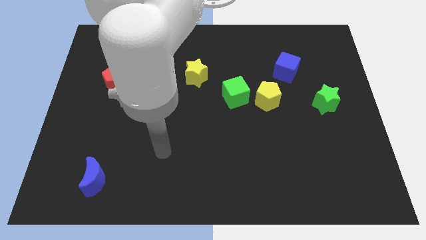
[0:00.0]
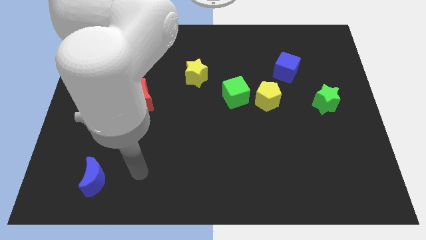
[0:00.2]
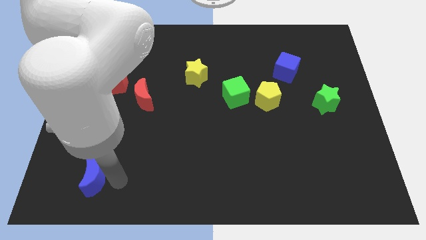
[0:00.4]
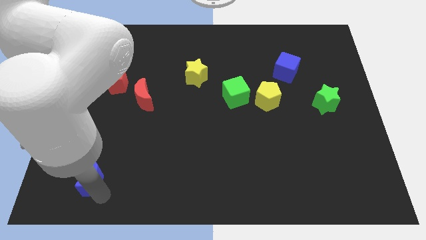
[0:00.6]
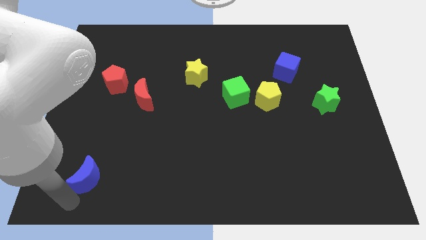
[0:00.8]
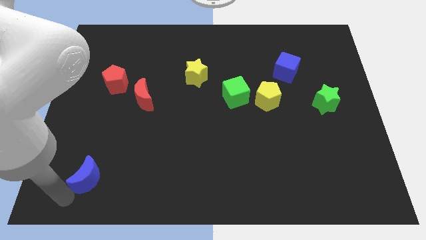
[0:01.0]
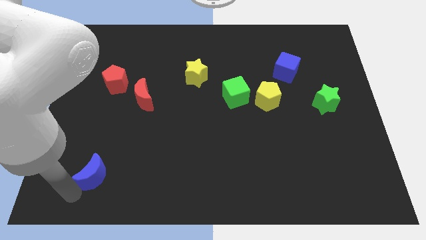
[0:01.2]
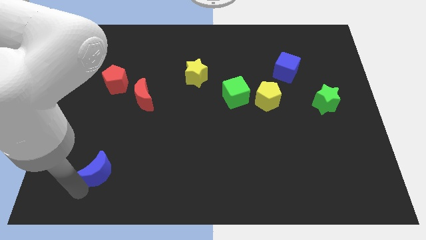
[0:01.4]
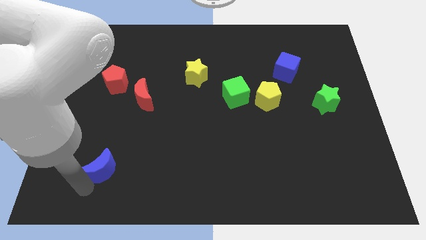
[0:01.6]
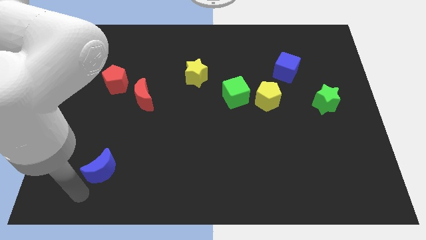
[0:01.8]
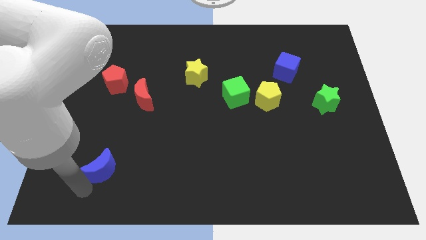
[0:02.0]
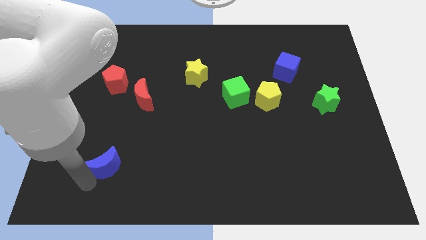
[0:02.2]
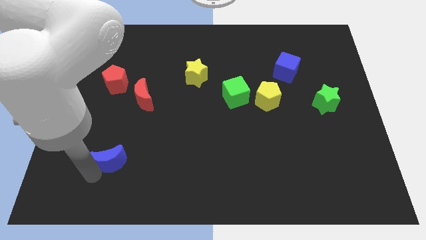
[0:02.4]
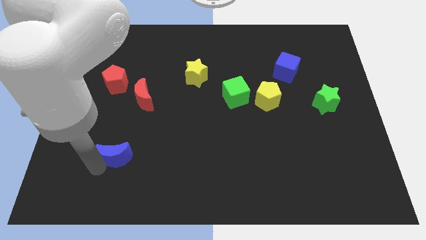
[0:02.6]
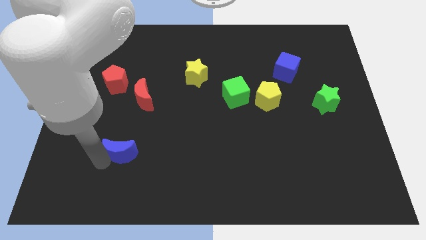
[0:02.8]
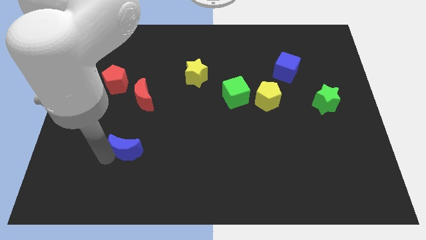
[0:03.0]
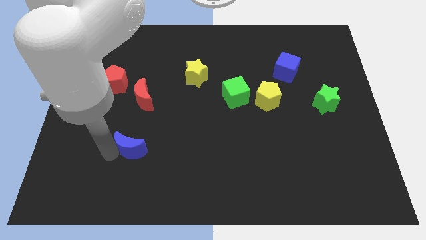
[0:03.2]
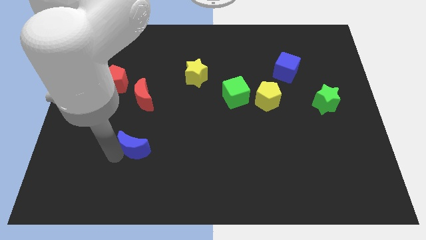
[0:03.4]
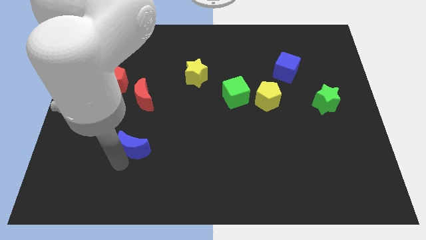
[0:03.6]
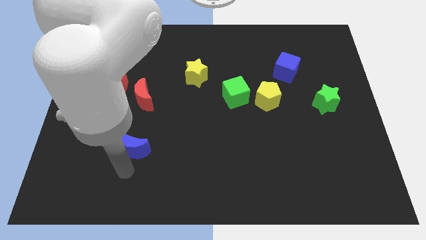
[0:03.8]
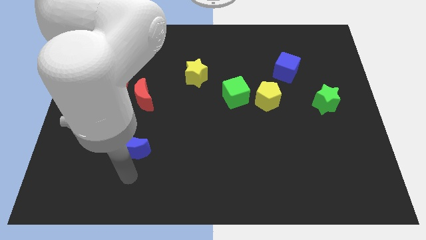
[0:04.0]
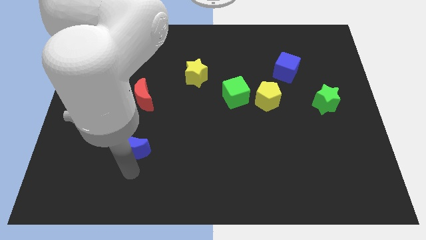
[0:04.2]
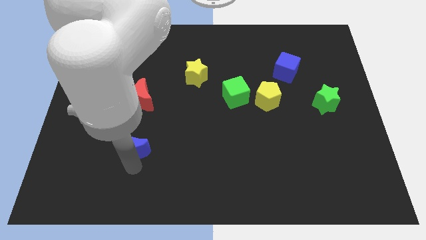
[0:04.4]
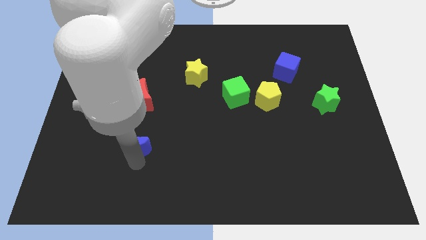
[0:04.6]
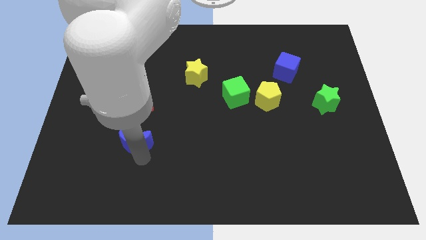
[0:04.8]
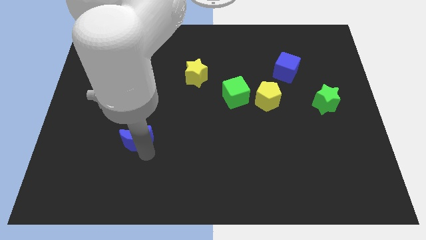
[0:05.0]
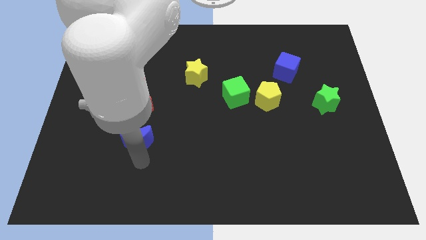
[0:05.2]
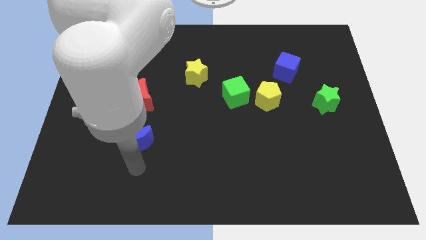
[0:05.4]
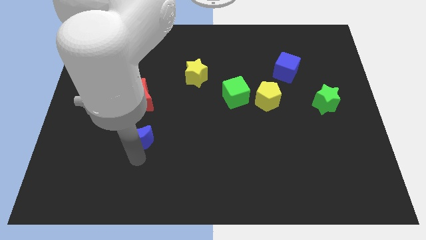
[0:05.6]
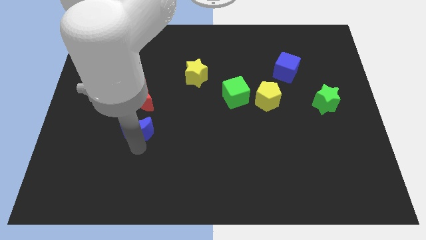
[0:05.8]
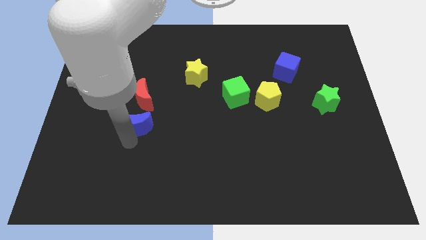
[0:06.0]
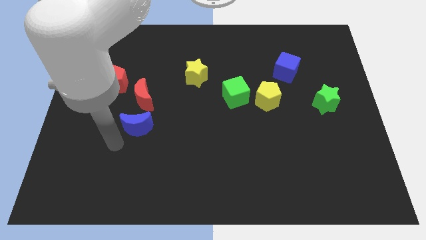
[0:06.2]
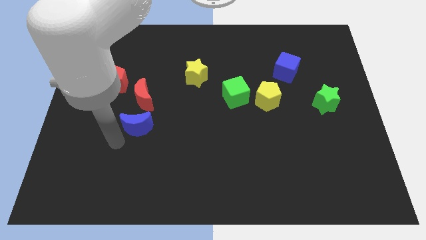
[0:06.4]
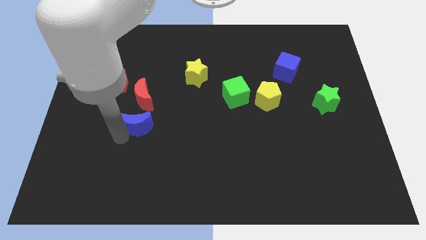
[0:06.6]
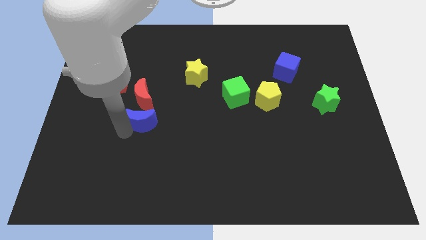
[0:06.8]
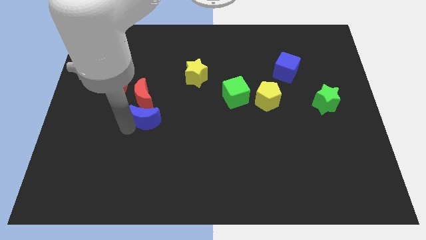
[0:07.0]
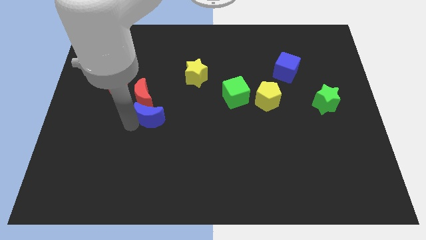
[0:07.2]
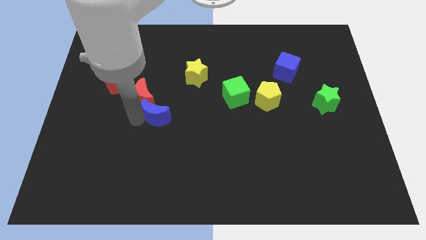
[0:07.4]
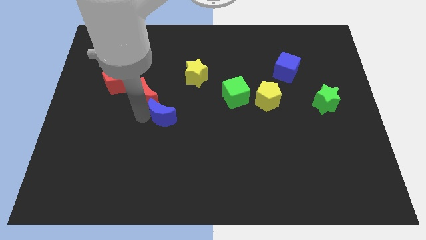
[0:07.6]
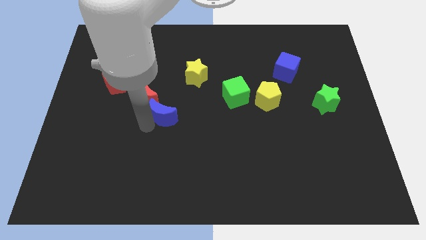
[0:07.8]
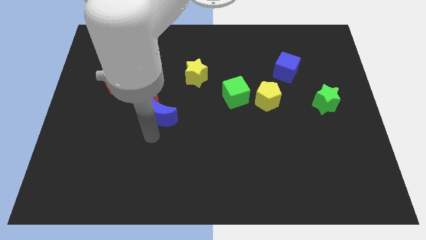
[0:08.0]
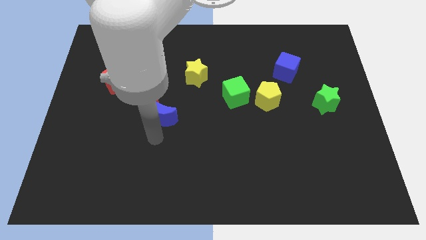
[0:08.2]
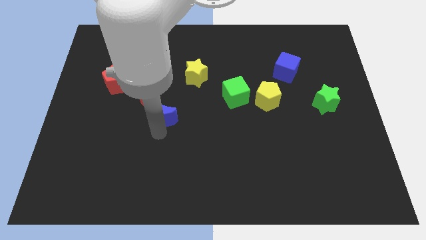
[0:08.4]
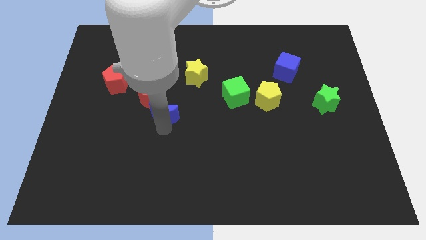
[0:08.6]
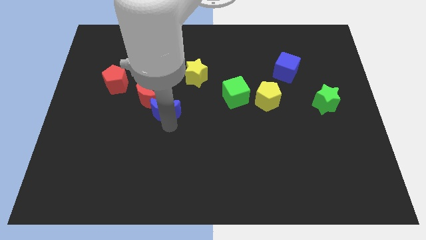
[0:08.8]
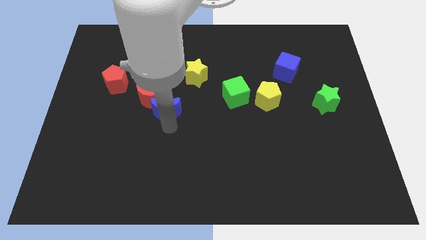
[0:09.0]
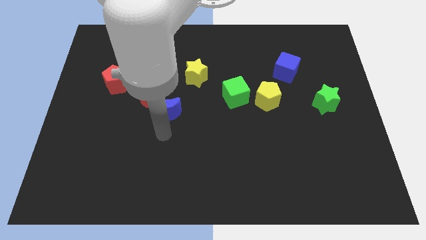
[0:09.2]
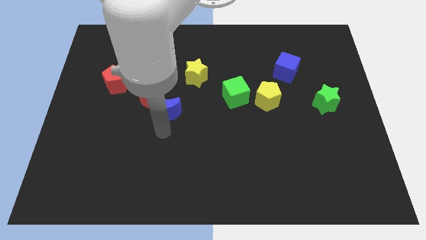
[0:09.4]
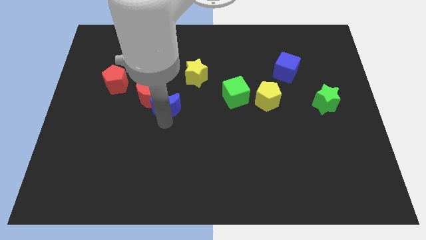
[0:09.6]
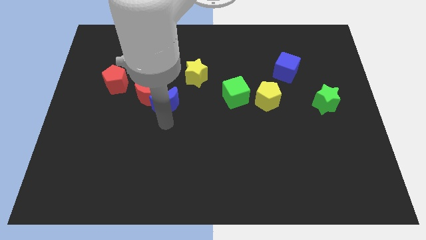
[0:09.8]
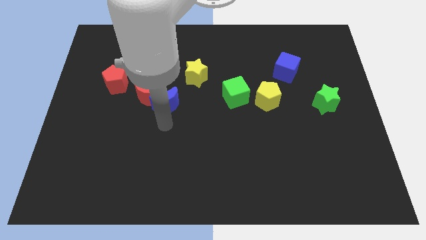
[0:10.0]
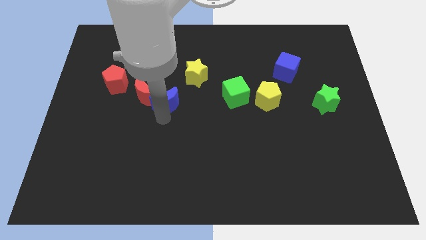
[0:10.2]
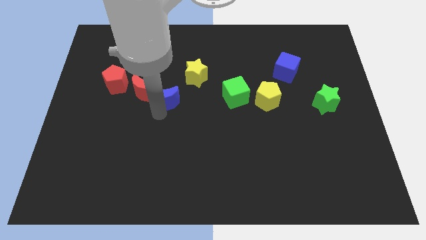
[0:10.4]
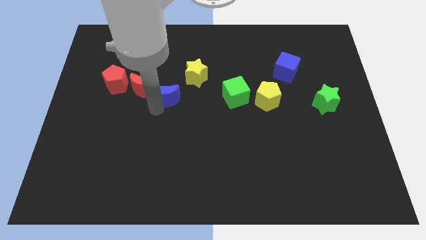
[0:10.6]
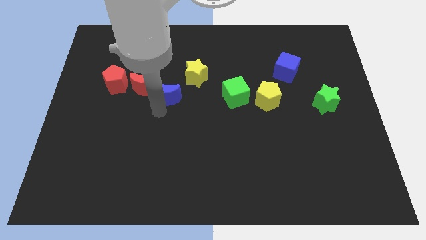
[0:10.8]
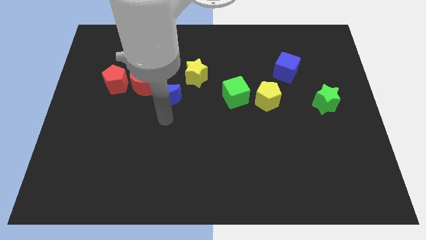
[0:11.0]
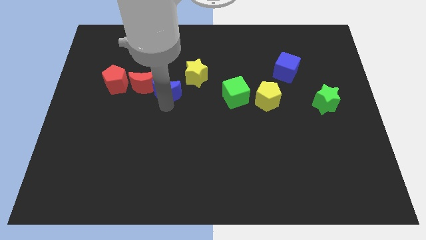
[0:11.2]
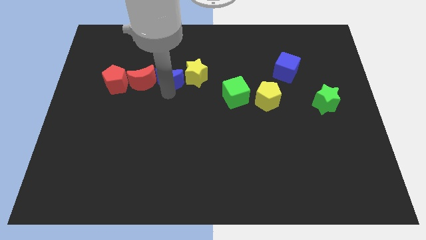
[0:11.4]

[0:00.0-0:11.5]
move the blue moon to the top right side of the red moon

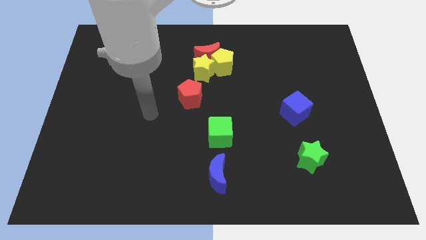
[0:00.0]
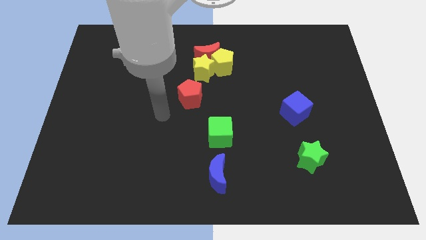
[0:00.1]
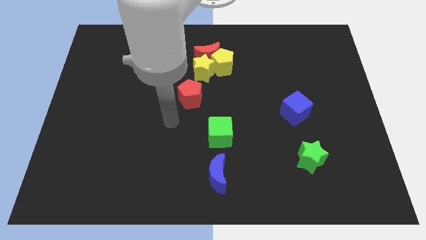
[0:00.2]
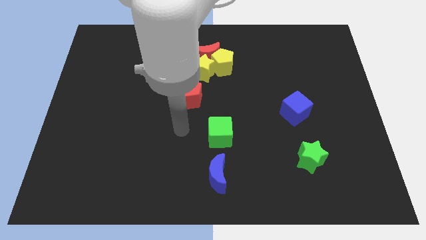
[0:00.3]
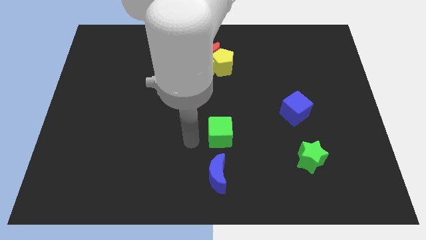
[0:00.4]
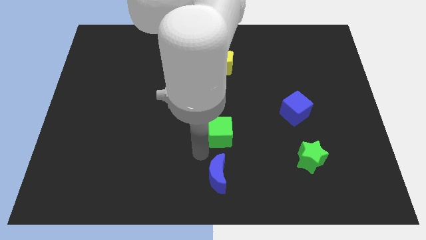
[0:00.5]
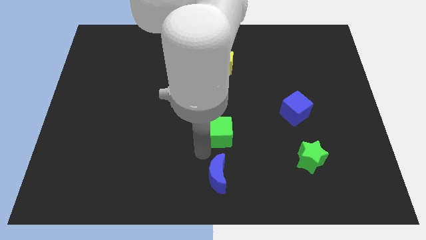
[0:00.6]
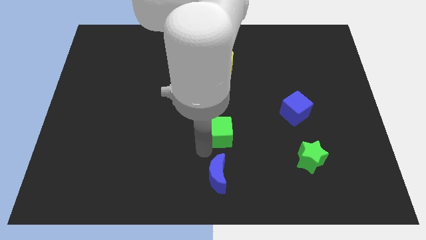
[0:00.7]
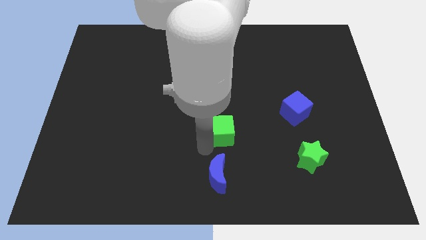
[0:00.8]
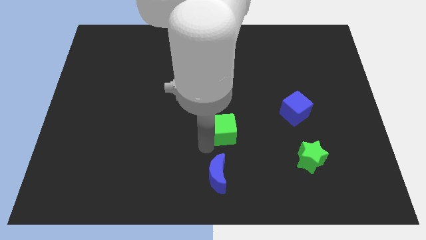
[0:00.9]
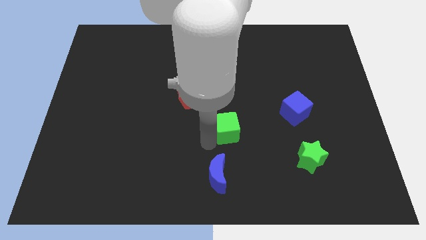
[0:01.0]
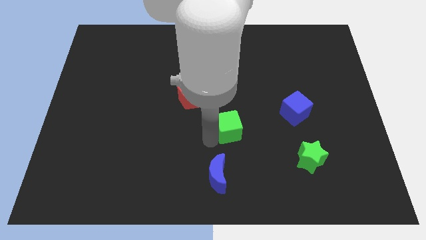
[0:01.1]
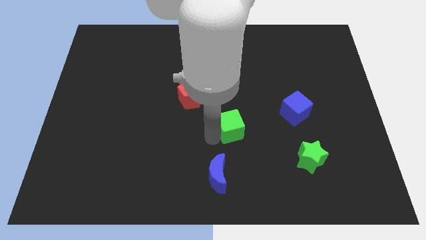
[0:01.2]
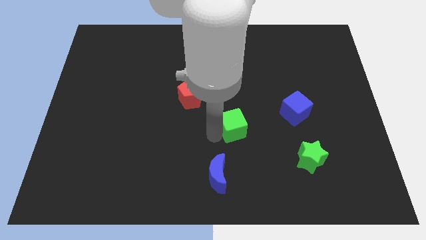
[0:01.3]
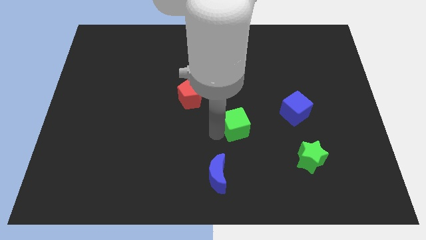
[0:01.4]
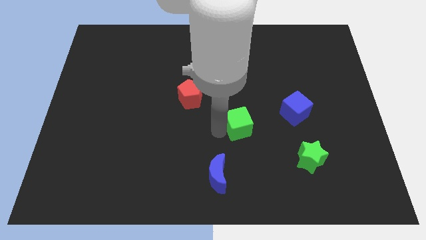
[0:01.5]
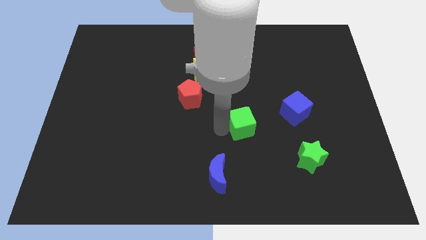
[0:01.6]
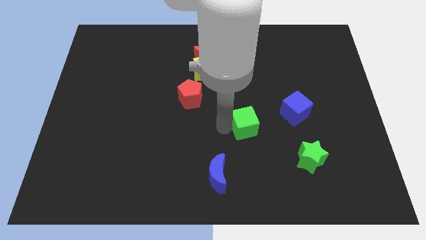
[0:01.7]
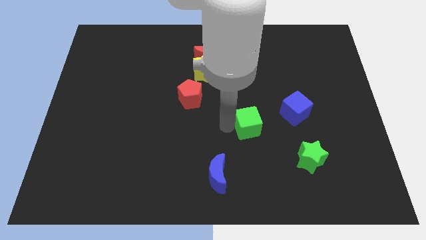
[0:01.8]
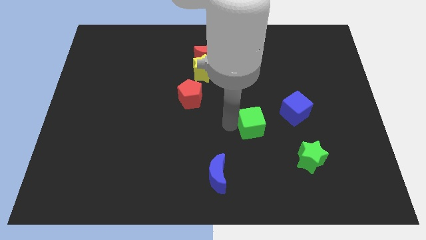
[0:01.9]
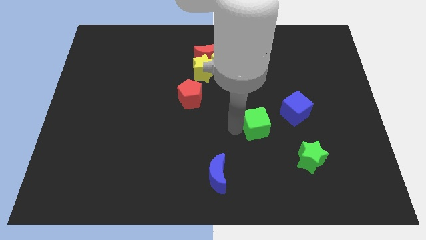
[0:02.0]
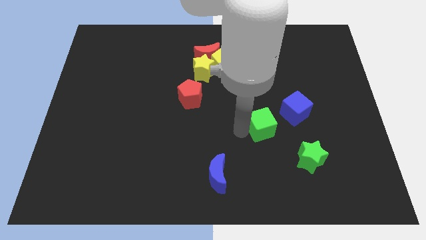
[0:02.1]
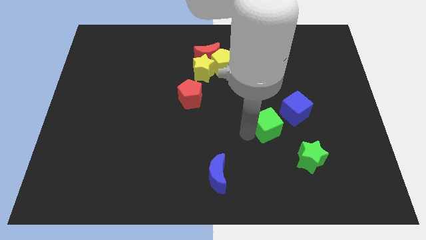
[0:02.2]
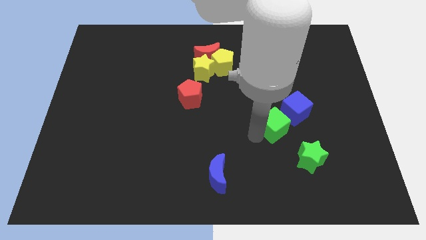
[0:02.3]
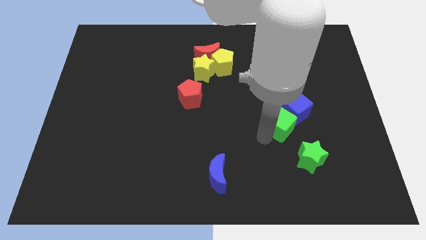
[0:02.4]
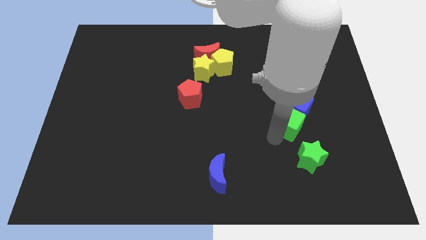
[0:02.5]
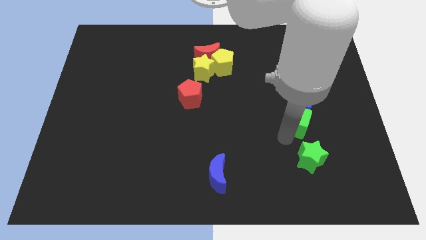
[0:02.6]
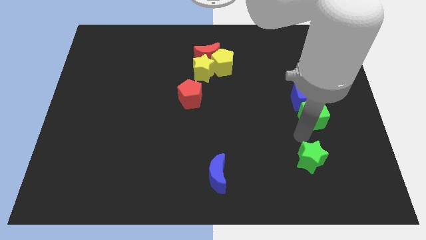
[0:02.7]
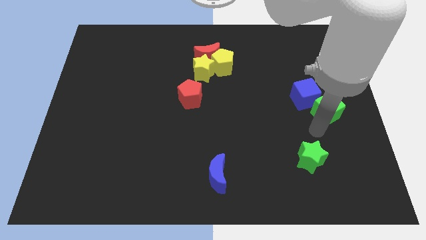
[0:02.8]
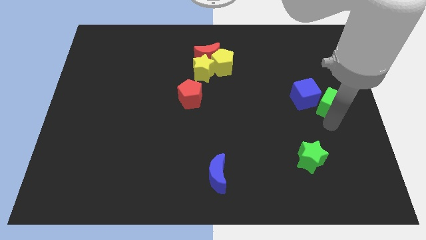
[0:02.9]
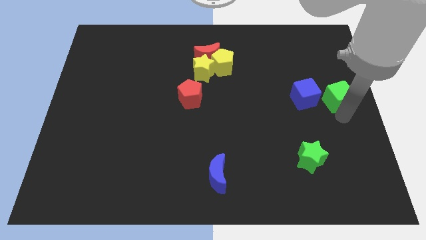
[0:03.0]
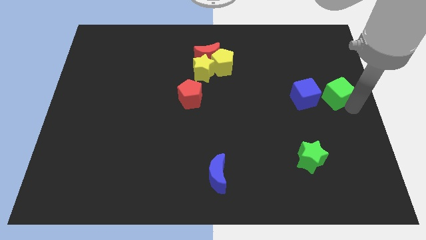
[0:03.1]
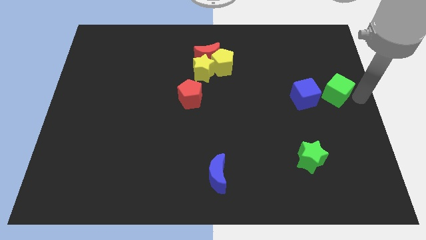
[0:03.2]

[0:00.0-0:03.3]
move the green cube diagonally up and to the right of the blue cube
